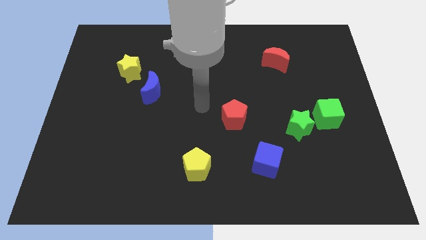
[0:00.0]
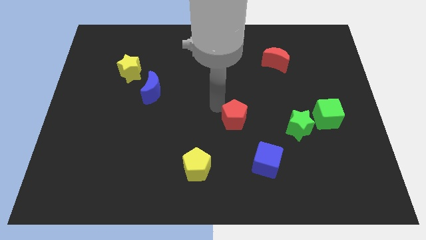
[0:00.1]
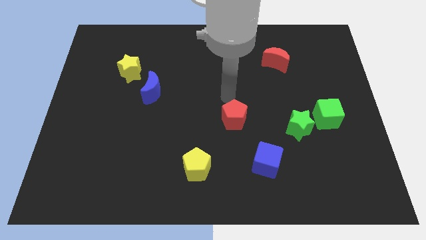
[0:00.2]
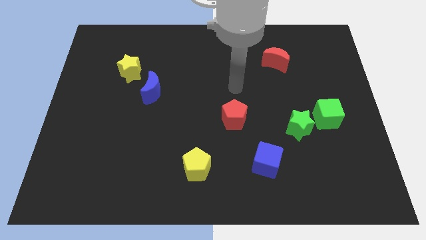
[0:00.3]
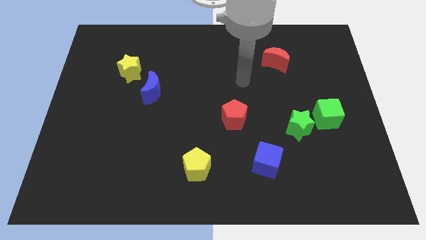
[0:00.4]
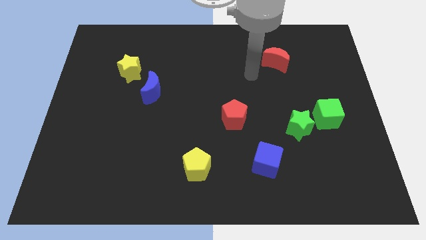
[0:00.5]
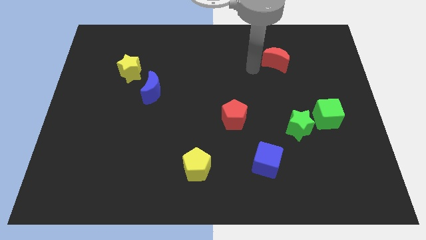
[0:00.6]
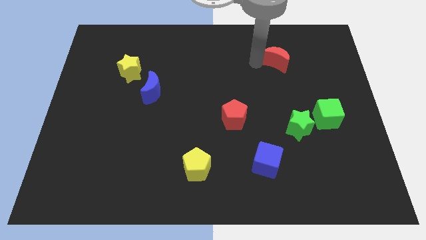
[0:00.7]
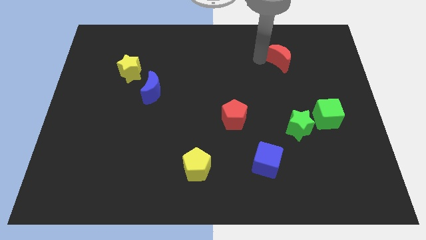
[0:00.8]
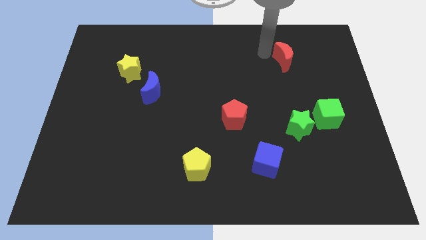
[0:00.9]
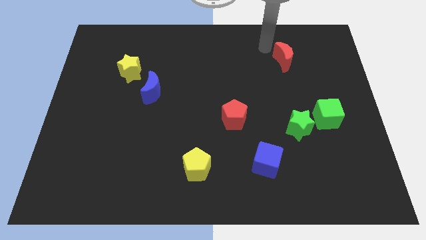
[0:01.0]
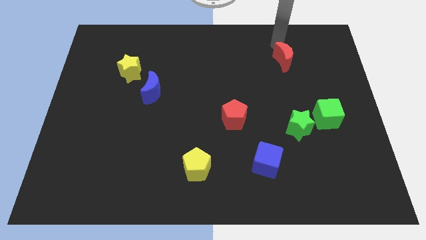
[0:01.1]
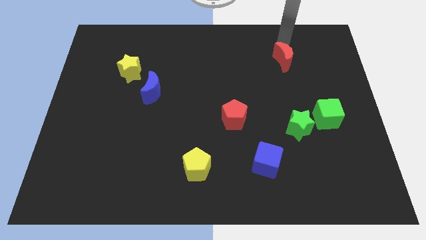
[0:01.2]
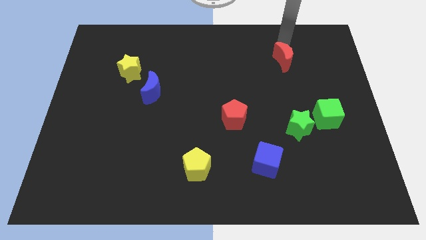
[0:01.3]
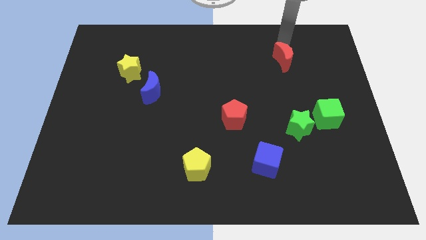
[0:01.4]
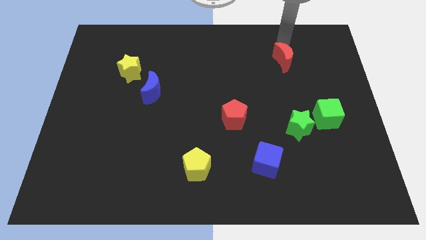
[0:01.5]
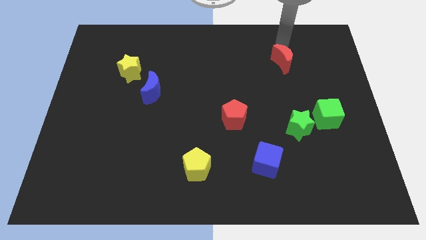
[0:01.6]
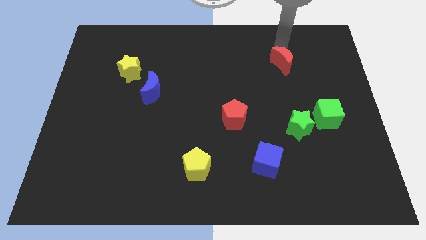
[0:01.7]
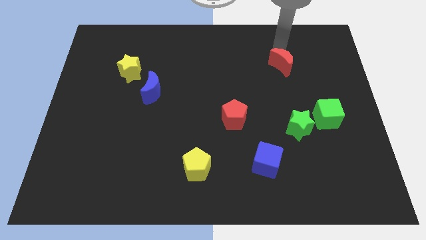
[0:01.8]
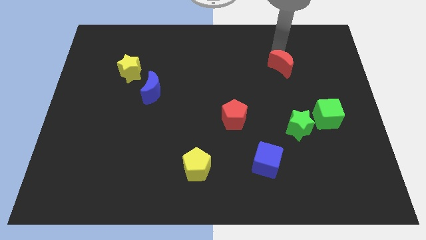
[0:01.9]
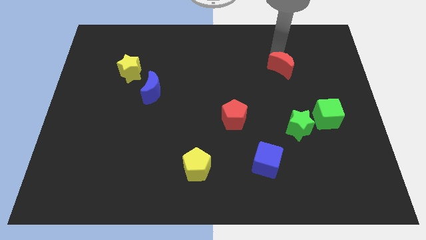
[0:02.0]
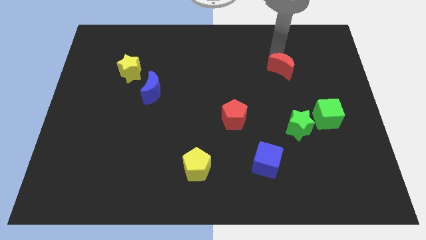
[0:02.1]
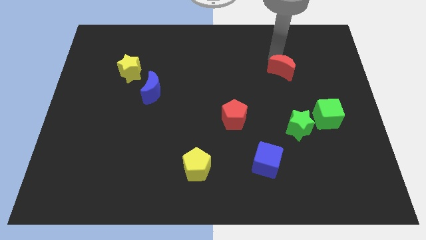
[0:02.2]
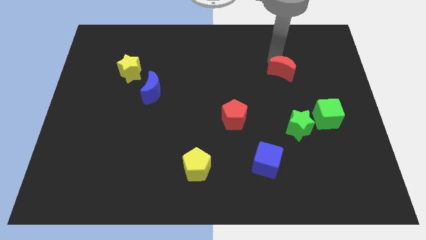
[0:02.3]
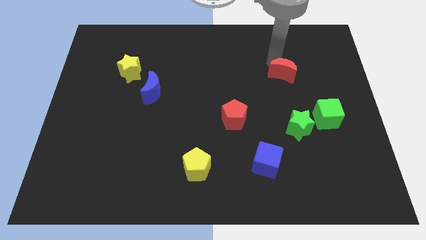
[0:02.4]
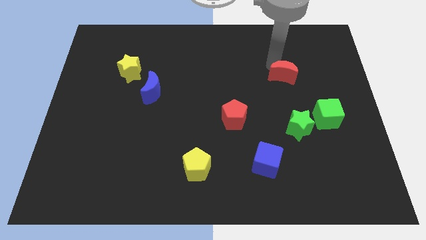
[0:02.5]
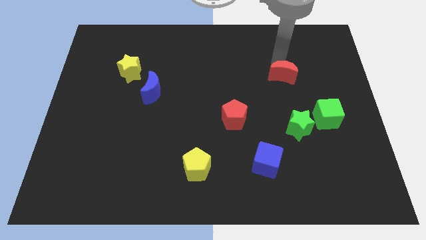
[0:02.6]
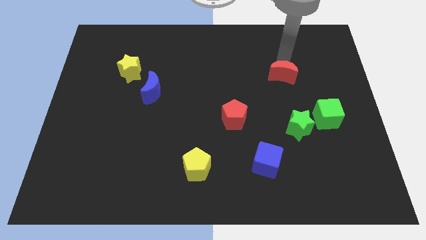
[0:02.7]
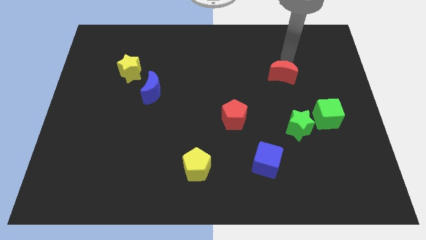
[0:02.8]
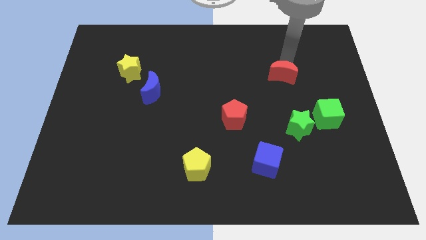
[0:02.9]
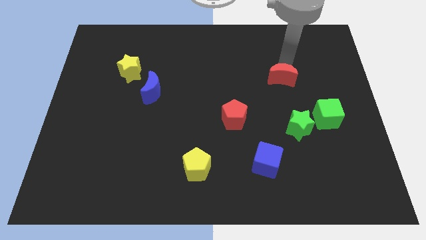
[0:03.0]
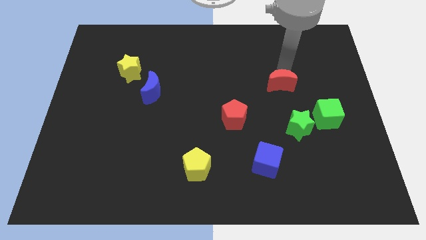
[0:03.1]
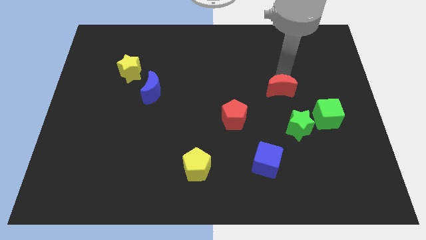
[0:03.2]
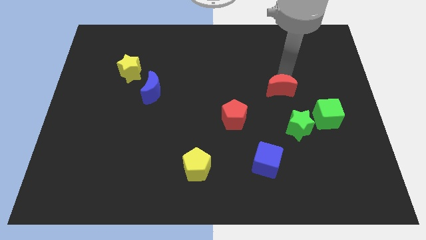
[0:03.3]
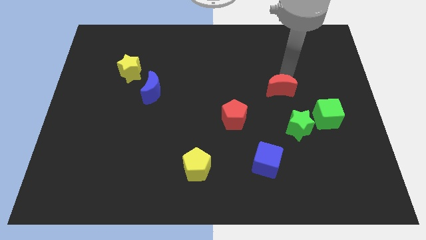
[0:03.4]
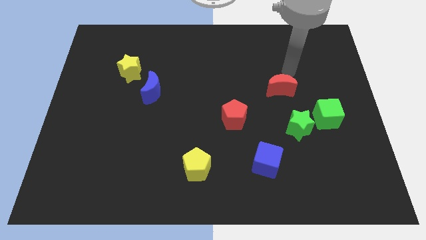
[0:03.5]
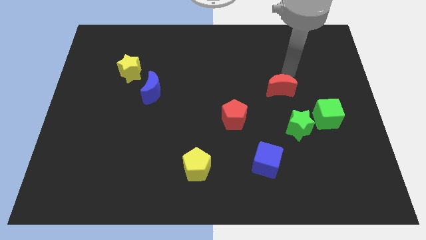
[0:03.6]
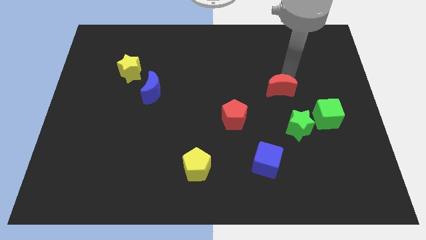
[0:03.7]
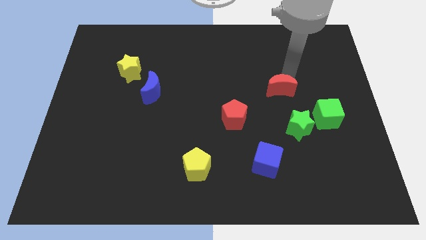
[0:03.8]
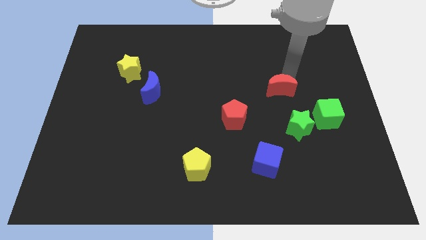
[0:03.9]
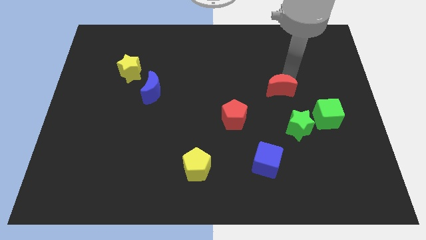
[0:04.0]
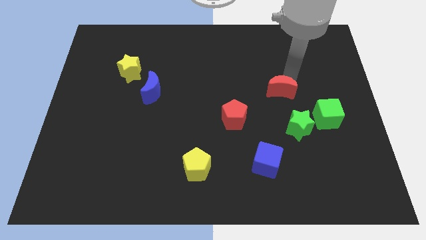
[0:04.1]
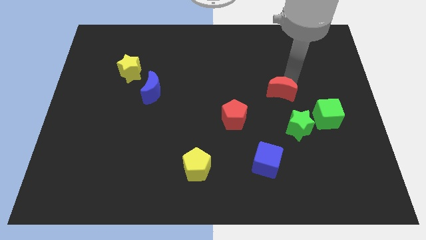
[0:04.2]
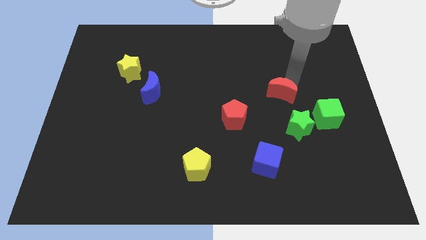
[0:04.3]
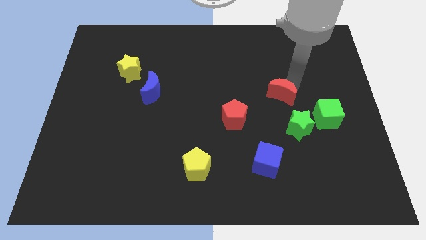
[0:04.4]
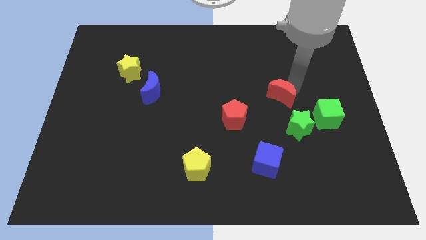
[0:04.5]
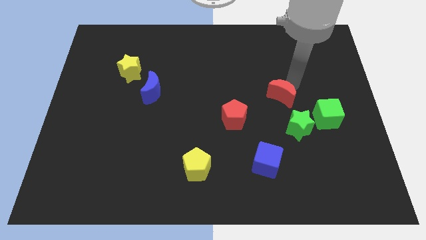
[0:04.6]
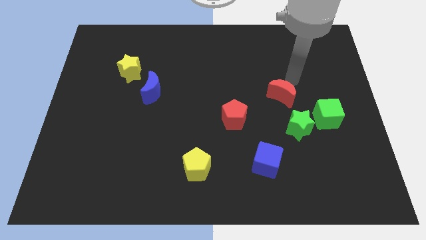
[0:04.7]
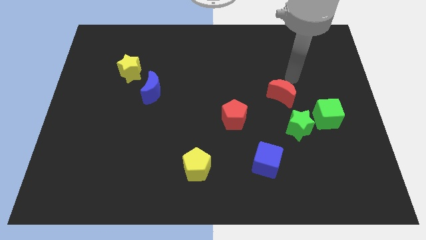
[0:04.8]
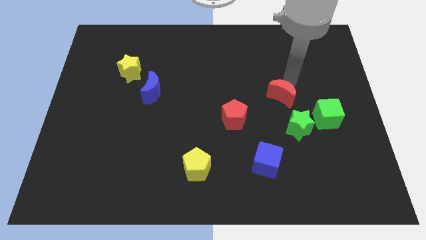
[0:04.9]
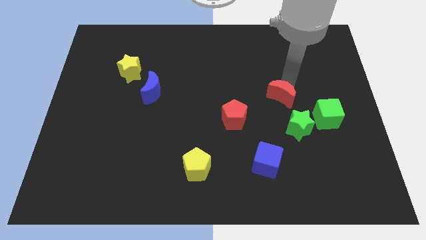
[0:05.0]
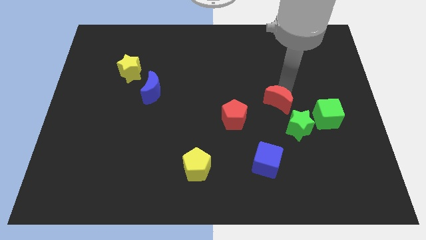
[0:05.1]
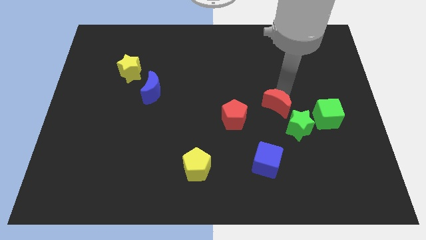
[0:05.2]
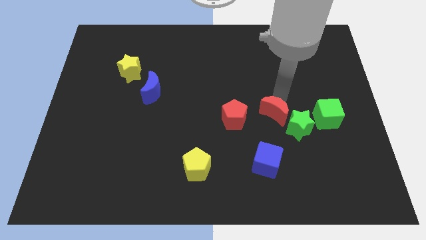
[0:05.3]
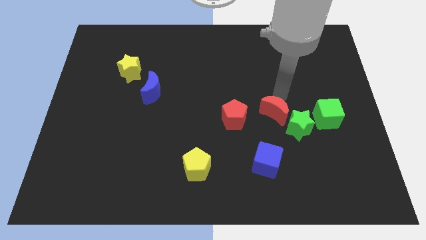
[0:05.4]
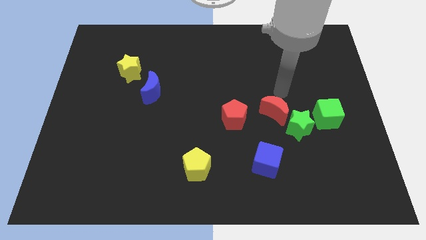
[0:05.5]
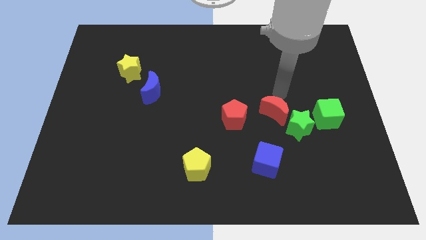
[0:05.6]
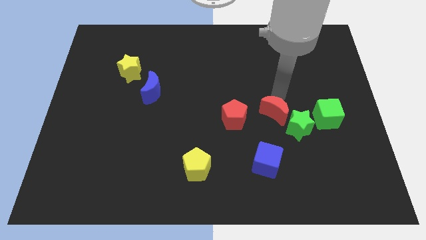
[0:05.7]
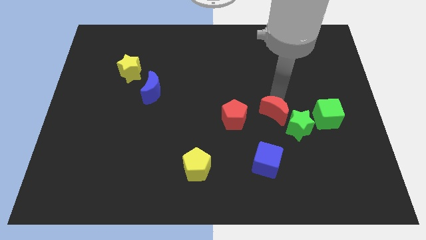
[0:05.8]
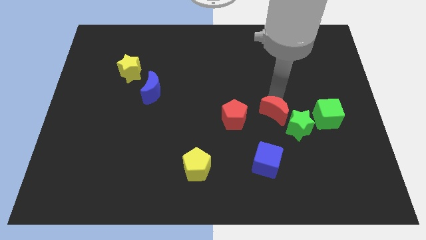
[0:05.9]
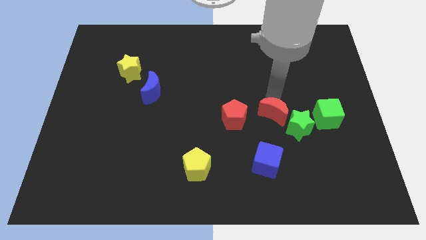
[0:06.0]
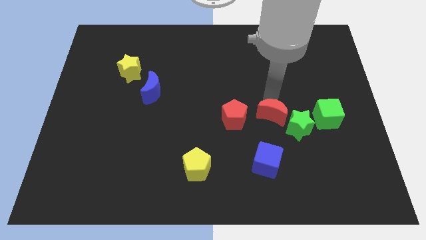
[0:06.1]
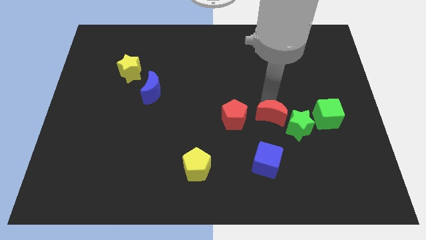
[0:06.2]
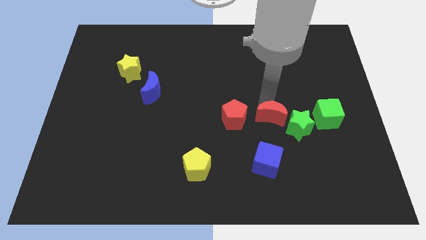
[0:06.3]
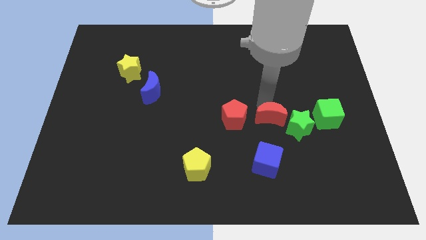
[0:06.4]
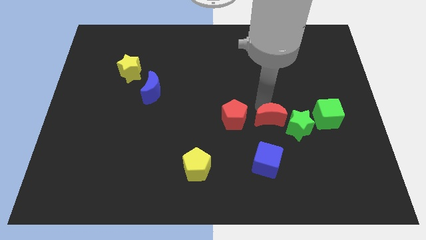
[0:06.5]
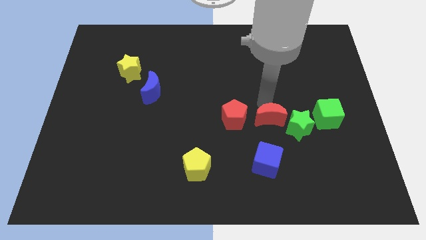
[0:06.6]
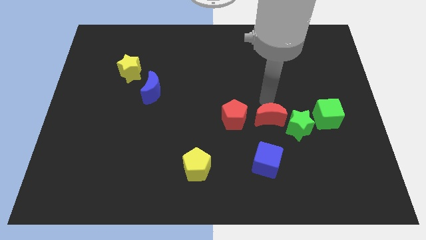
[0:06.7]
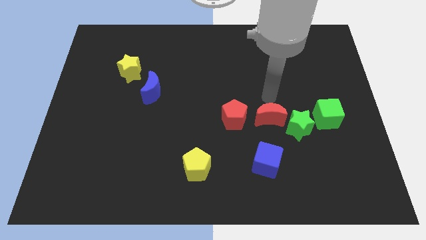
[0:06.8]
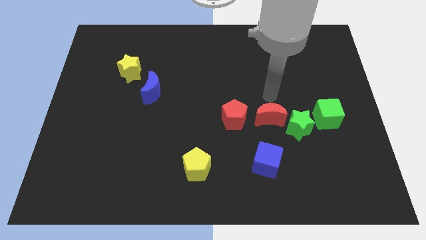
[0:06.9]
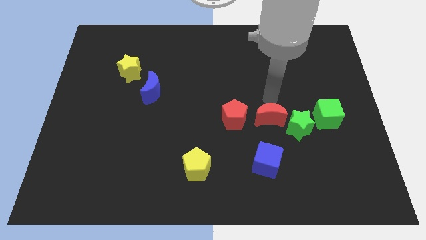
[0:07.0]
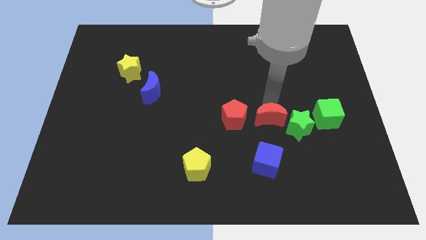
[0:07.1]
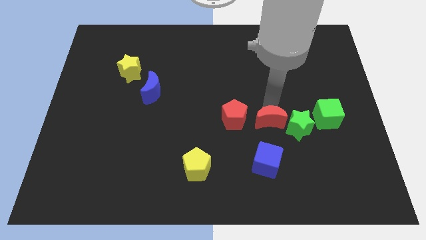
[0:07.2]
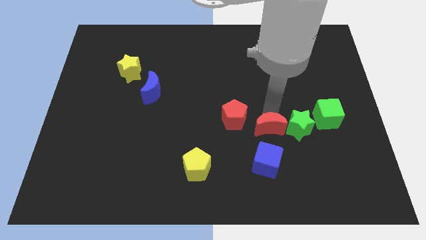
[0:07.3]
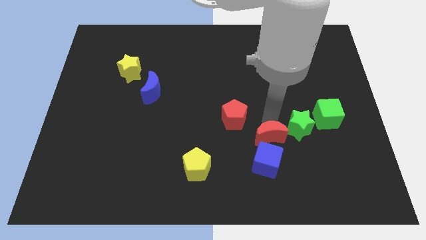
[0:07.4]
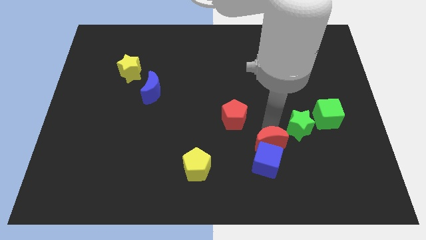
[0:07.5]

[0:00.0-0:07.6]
push the red moon close to the blue cube

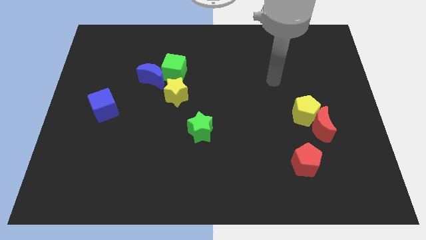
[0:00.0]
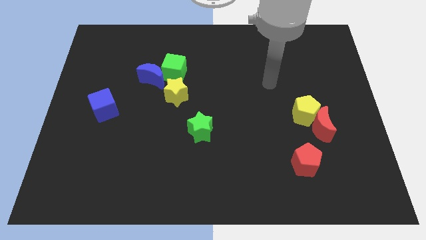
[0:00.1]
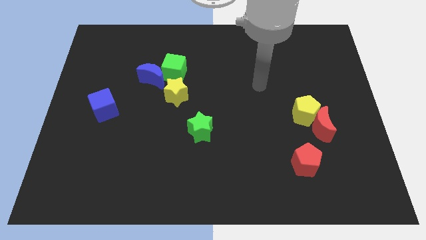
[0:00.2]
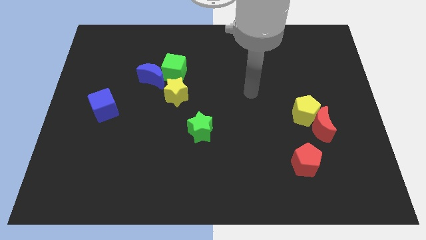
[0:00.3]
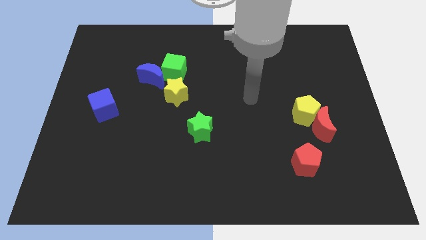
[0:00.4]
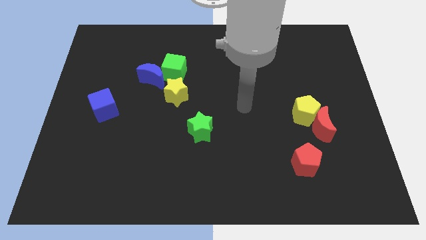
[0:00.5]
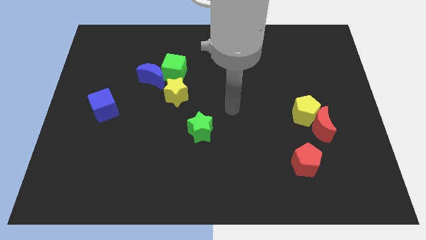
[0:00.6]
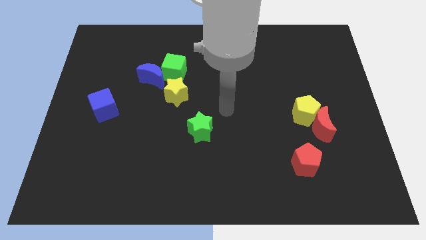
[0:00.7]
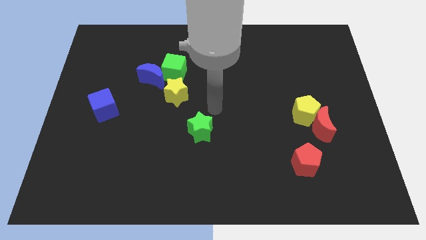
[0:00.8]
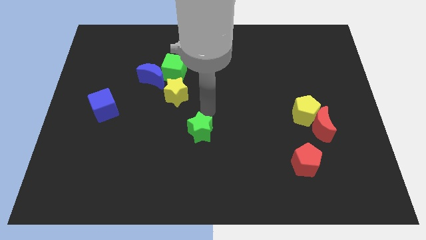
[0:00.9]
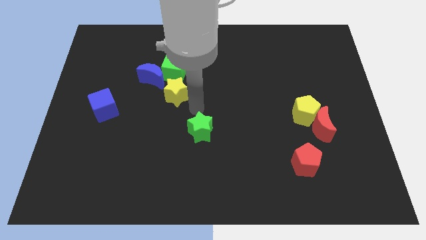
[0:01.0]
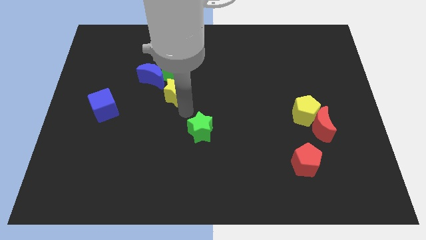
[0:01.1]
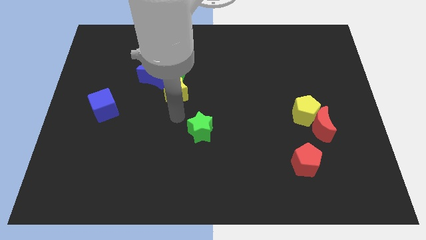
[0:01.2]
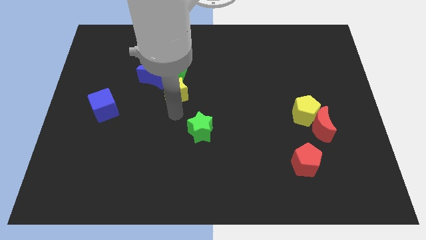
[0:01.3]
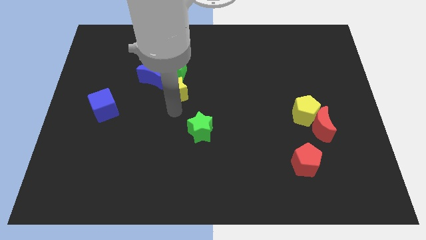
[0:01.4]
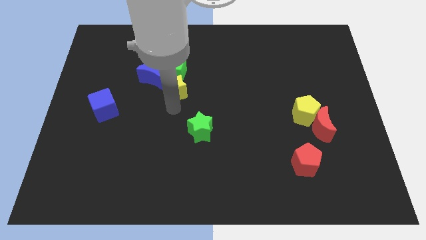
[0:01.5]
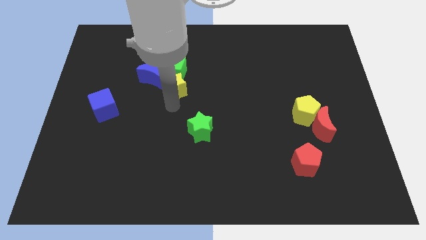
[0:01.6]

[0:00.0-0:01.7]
put the yellow star to the green cube
